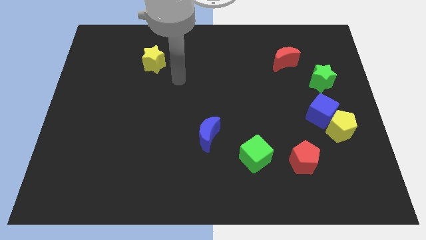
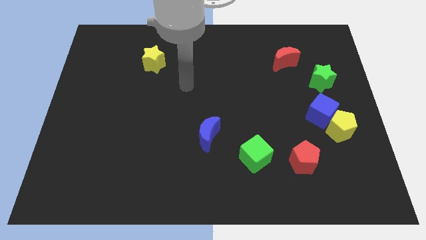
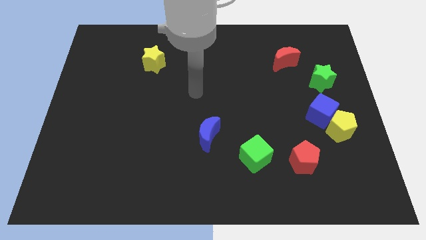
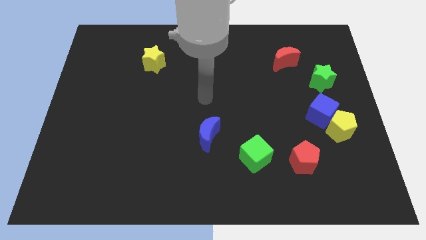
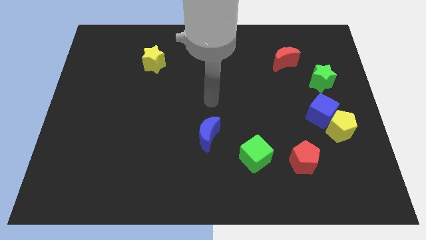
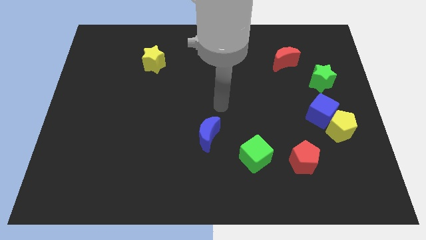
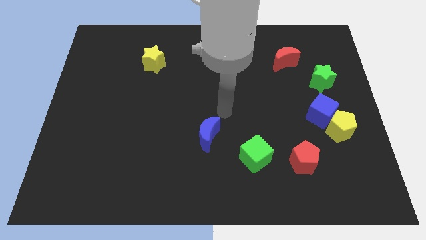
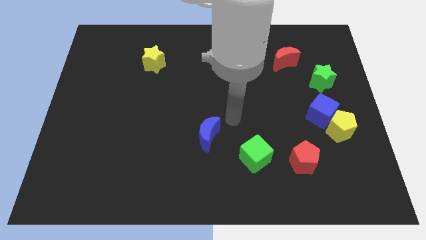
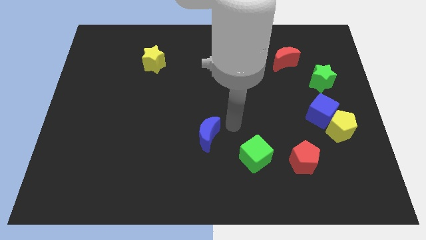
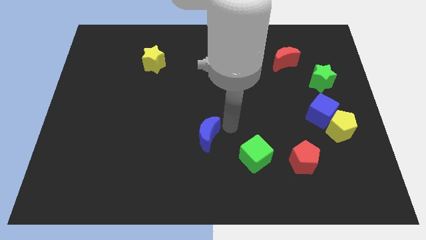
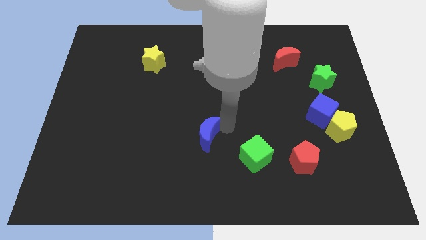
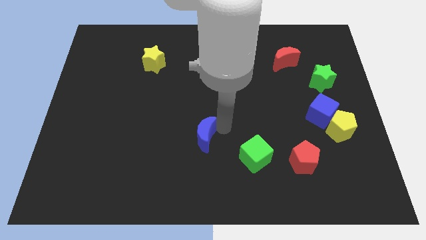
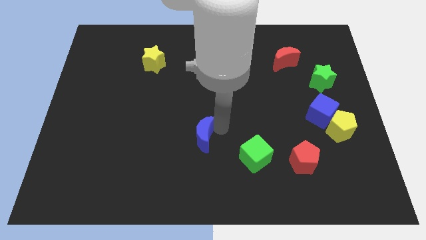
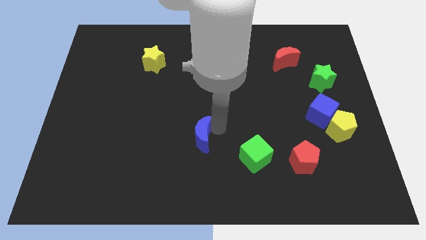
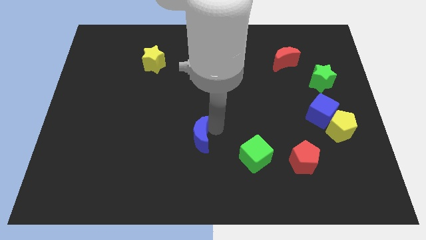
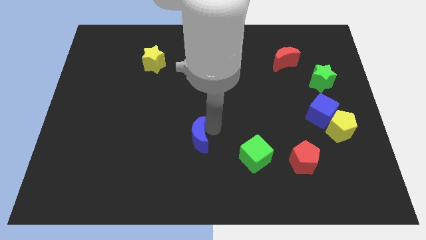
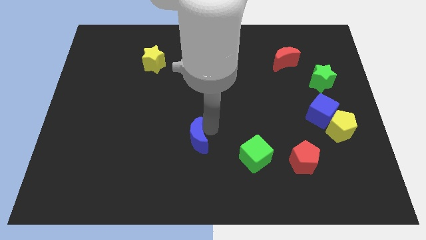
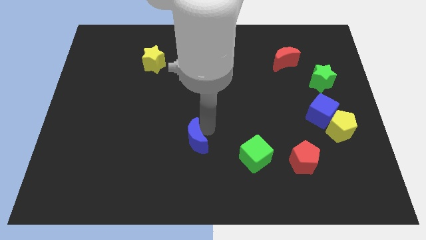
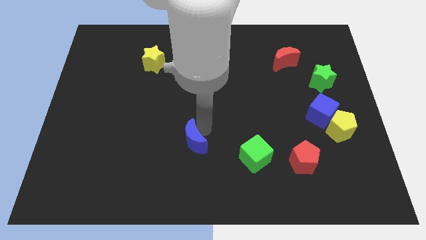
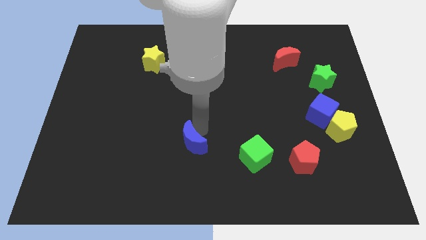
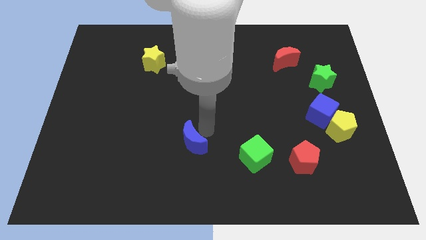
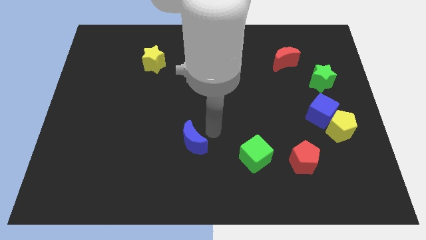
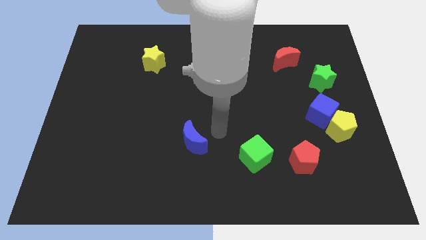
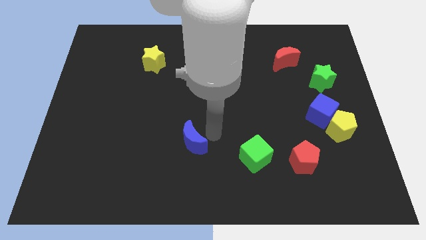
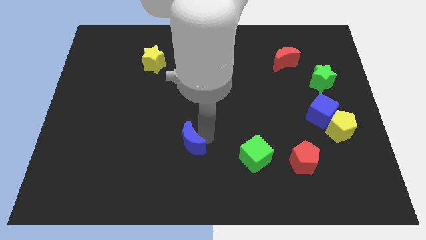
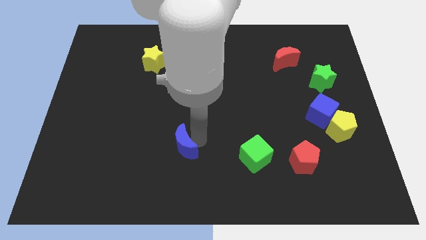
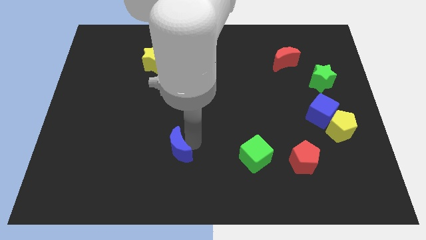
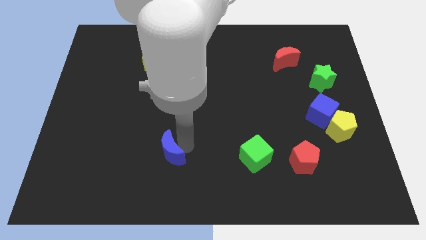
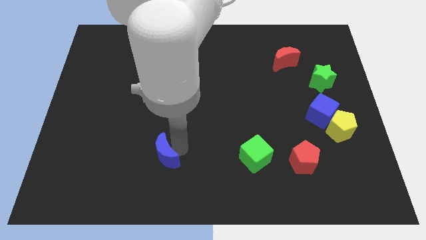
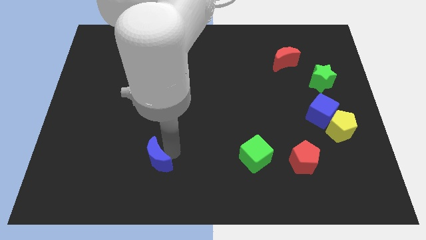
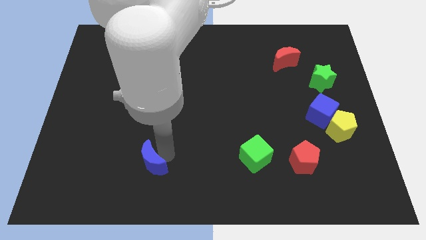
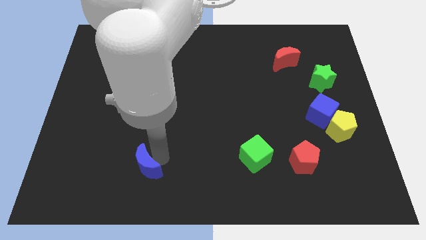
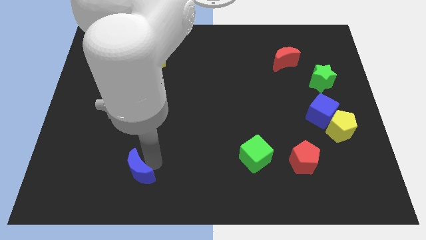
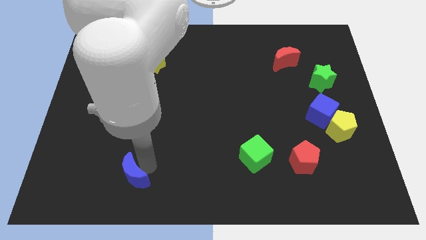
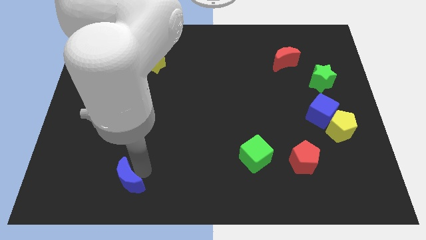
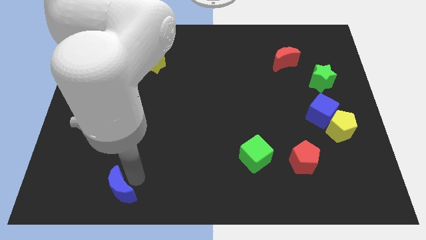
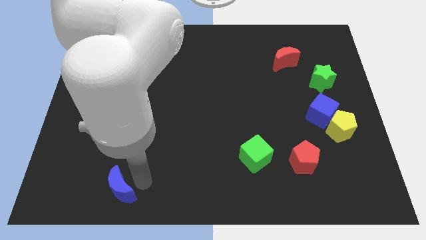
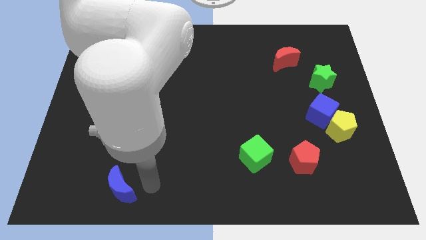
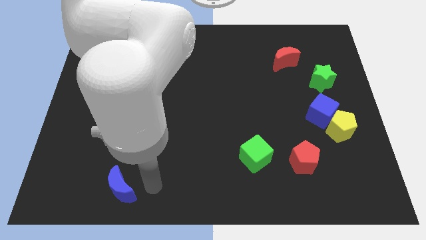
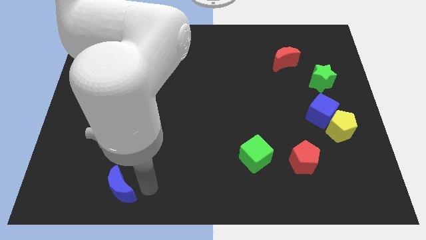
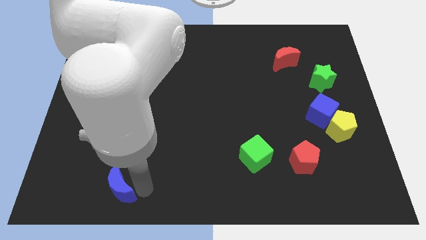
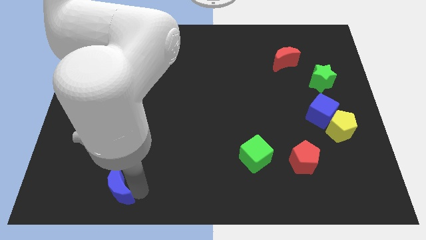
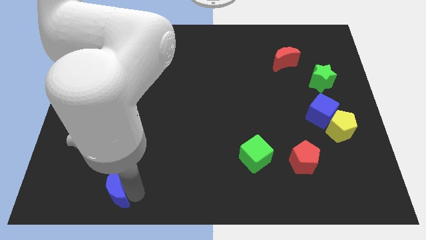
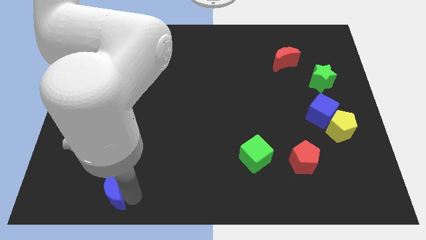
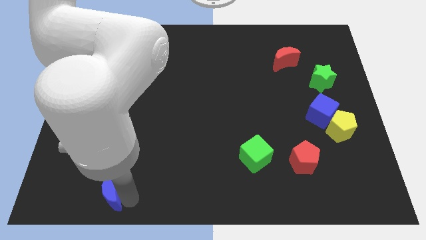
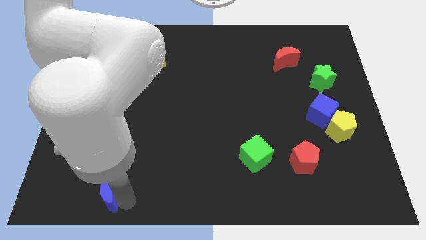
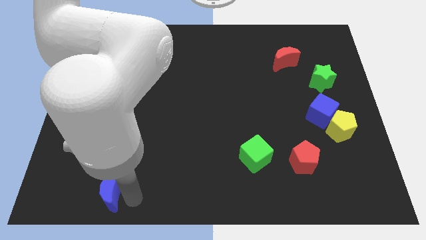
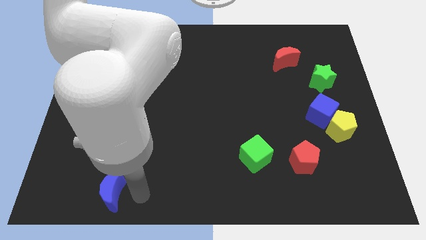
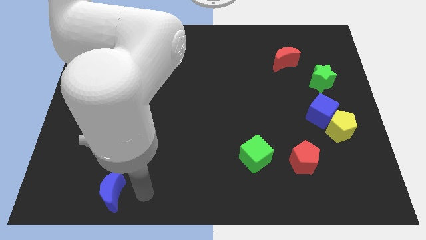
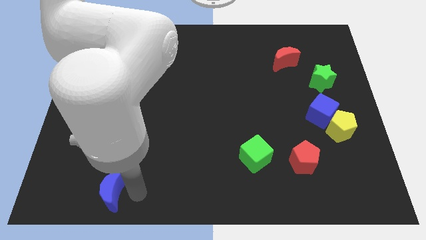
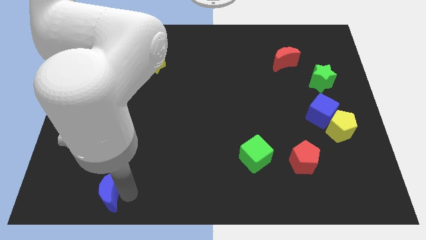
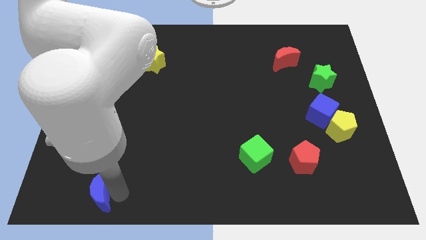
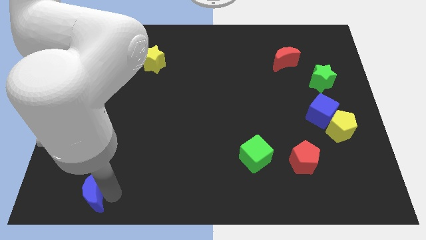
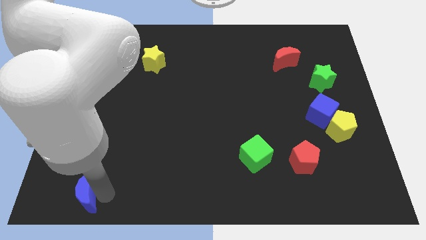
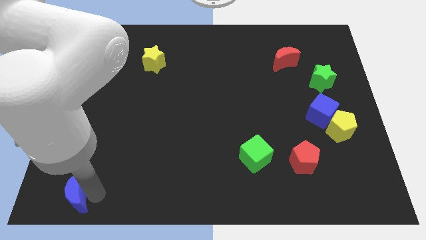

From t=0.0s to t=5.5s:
slide the blue moon to the bottom left
